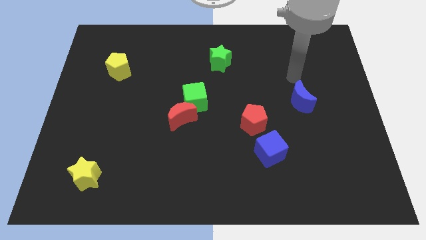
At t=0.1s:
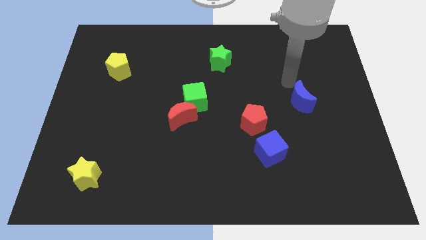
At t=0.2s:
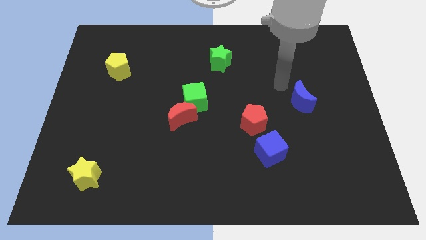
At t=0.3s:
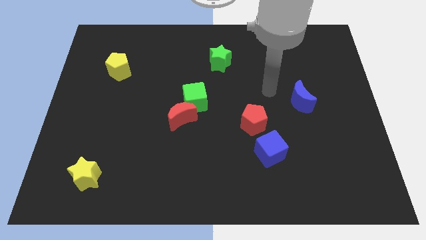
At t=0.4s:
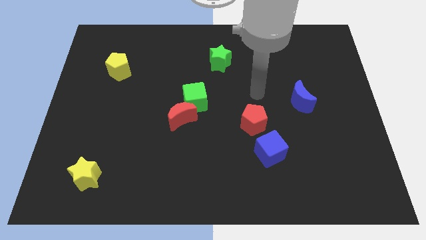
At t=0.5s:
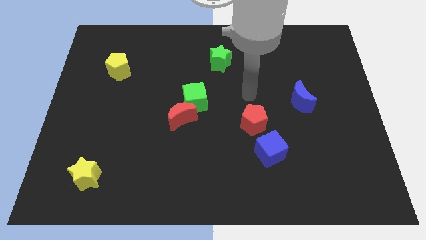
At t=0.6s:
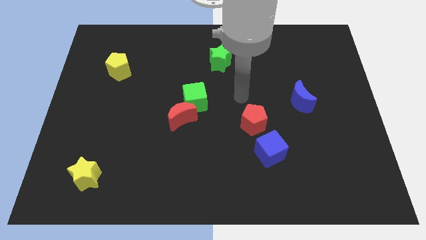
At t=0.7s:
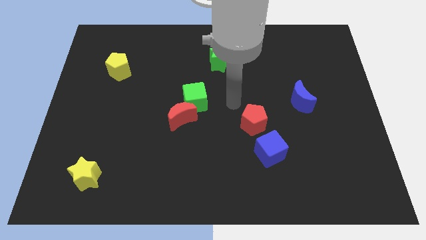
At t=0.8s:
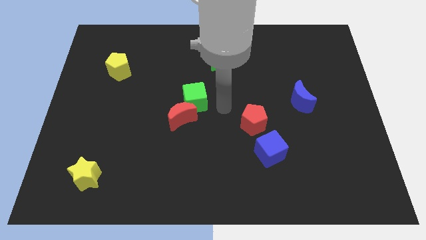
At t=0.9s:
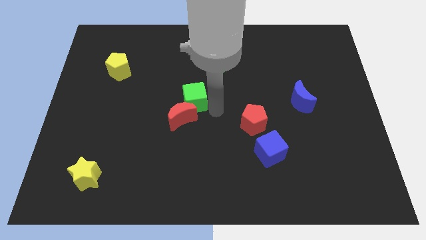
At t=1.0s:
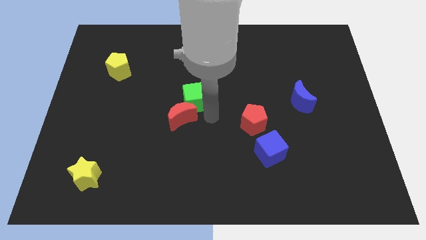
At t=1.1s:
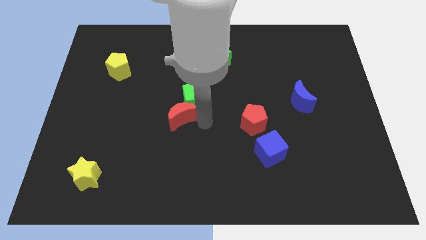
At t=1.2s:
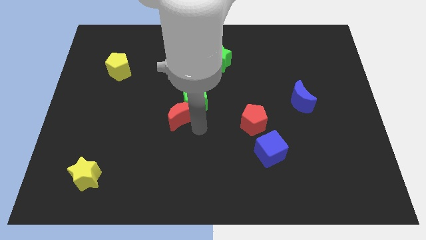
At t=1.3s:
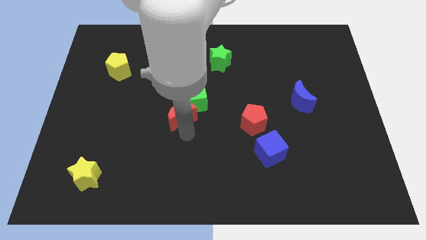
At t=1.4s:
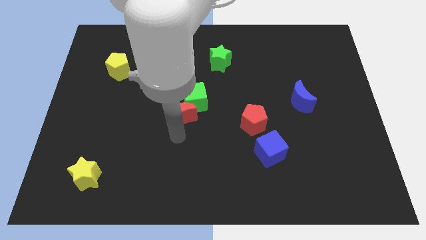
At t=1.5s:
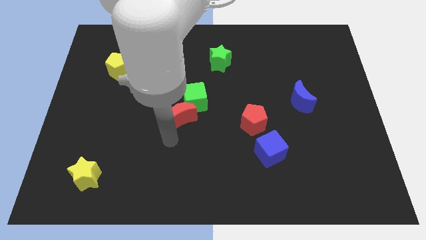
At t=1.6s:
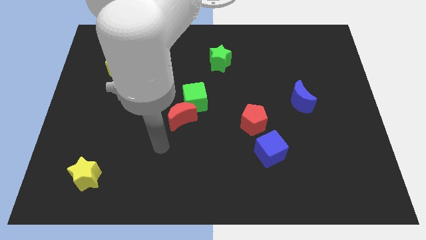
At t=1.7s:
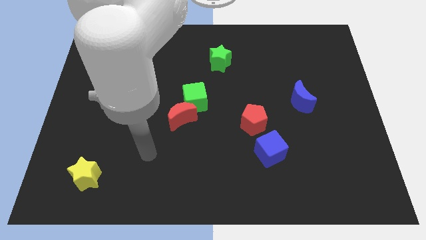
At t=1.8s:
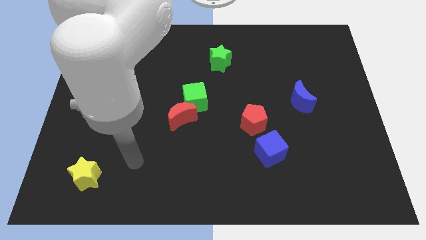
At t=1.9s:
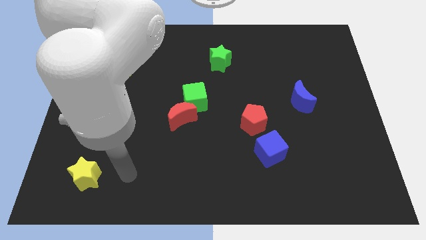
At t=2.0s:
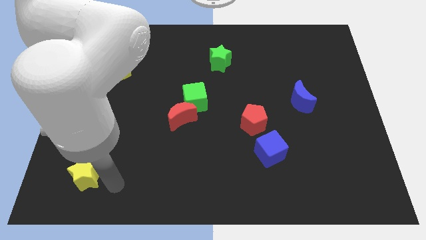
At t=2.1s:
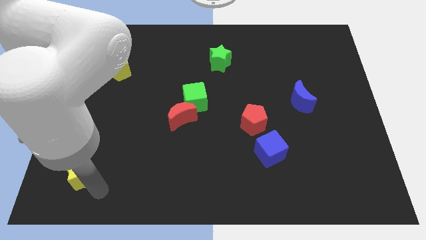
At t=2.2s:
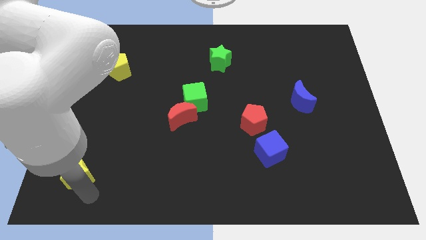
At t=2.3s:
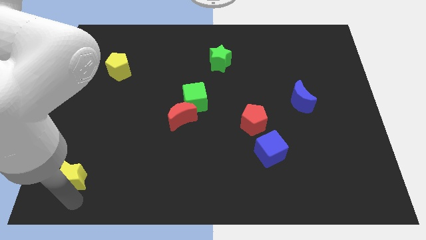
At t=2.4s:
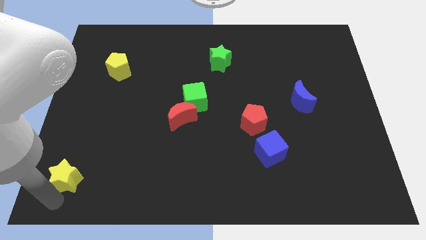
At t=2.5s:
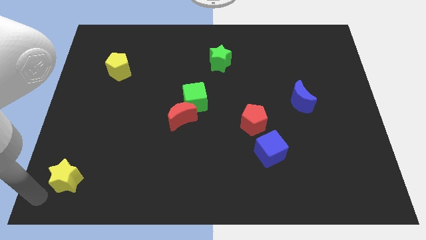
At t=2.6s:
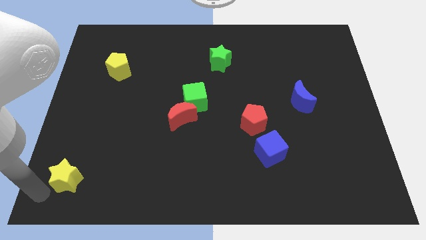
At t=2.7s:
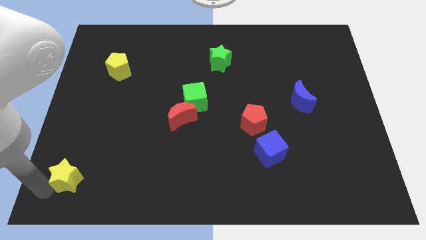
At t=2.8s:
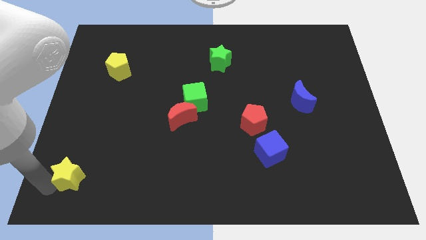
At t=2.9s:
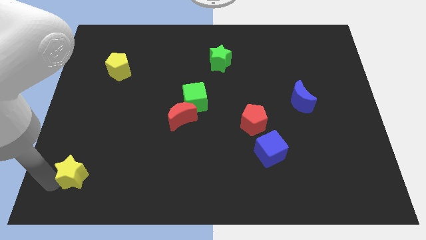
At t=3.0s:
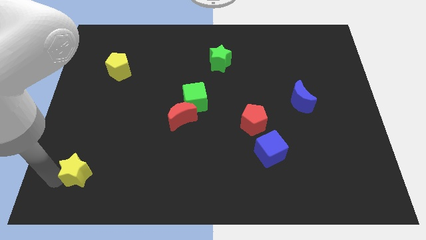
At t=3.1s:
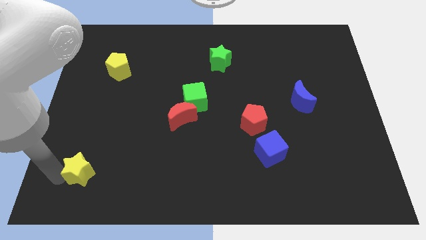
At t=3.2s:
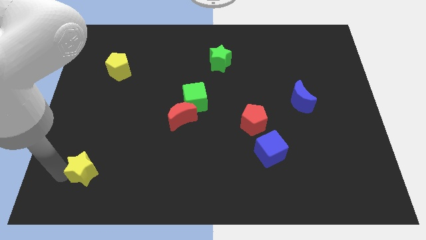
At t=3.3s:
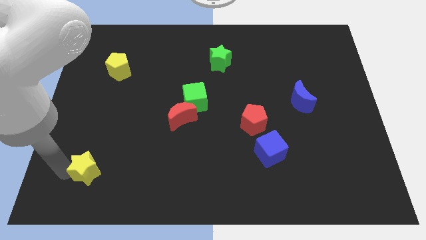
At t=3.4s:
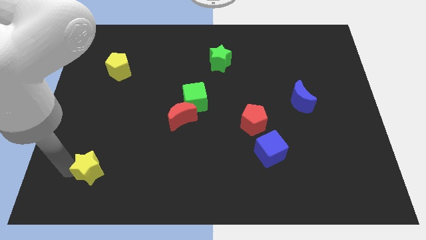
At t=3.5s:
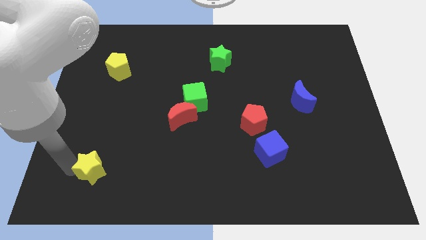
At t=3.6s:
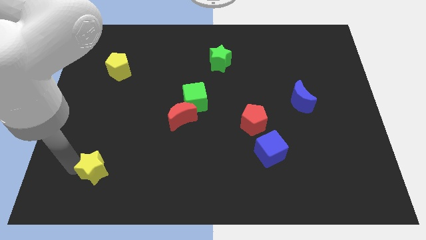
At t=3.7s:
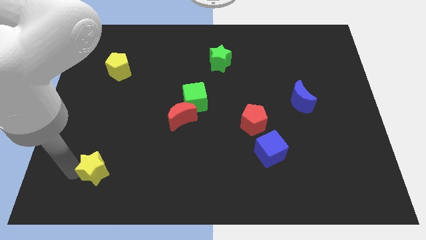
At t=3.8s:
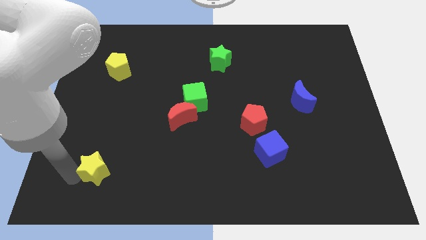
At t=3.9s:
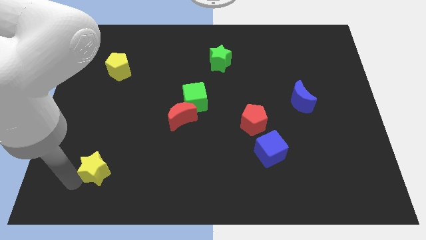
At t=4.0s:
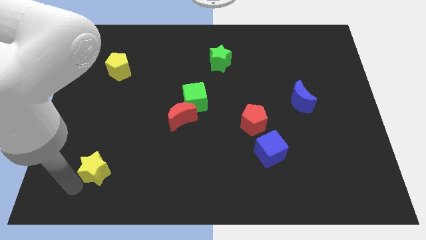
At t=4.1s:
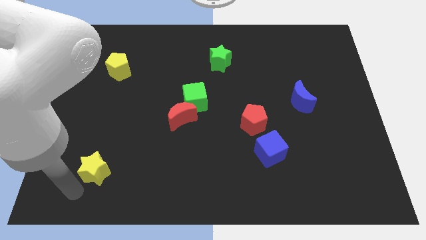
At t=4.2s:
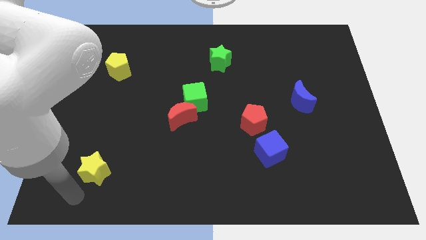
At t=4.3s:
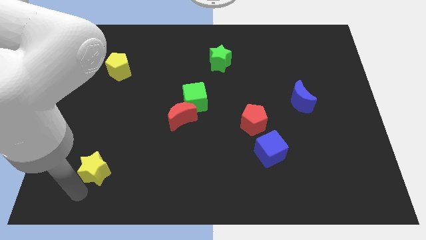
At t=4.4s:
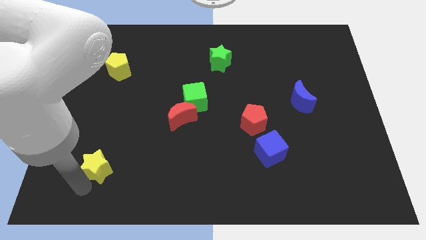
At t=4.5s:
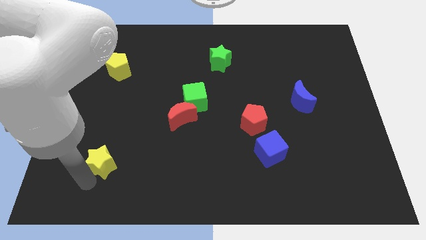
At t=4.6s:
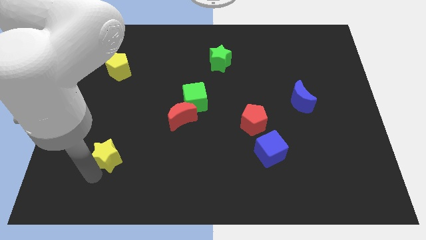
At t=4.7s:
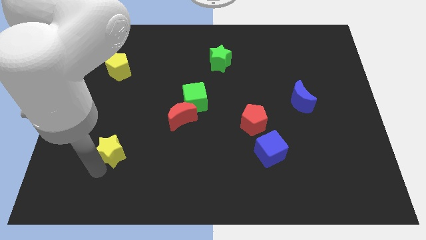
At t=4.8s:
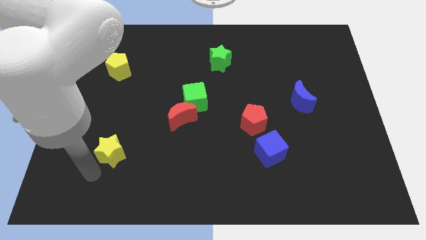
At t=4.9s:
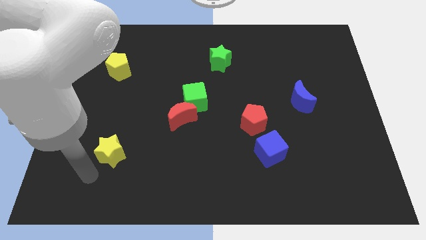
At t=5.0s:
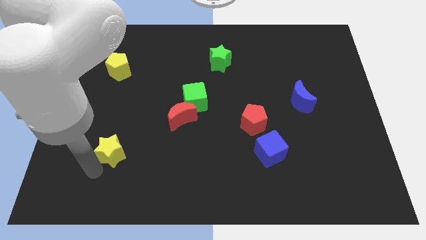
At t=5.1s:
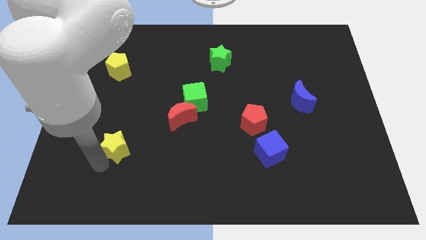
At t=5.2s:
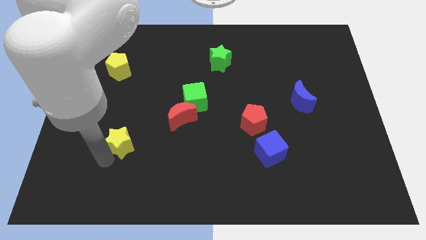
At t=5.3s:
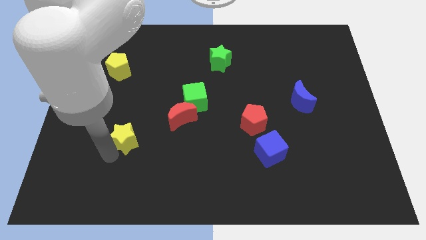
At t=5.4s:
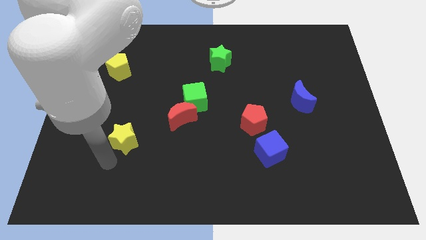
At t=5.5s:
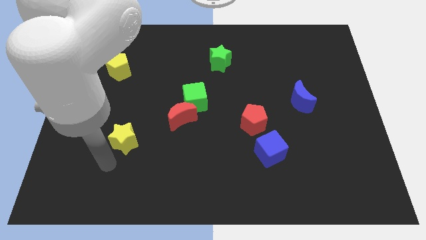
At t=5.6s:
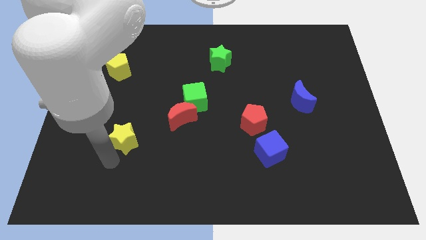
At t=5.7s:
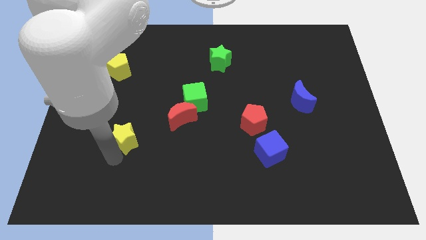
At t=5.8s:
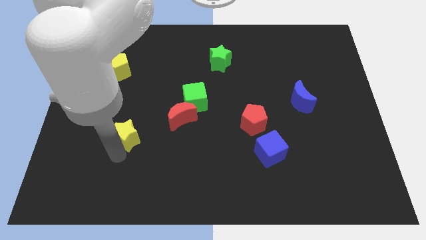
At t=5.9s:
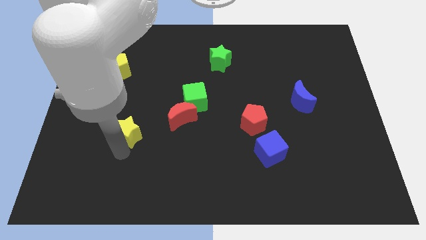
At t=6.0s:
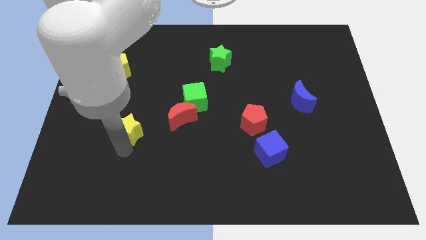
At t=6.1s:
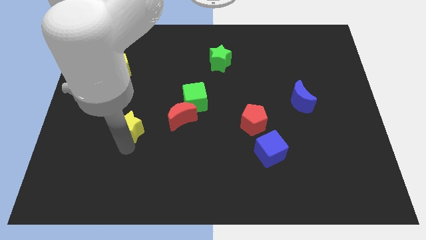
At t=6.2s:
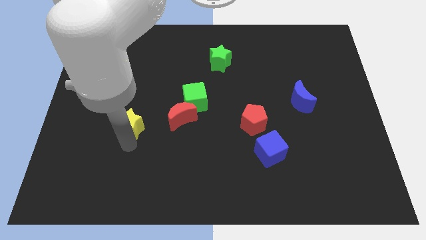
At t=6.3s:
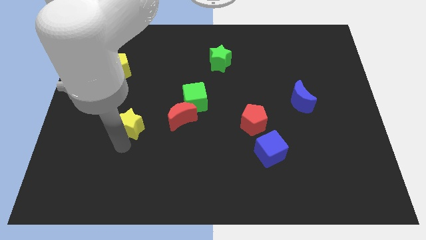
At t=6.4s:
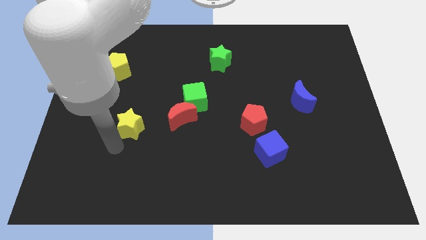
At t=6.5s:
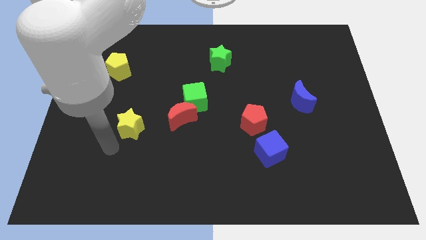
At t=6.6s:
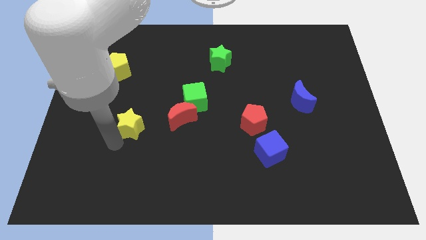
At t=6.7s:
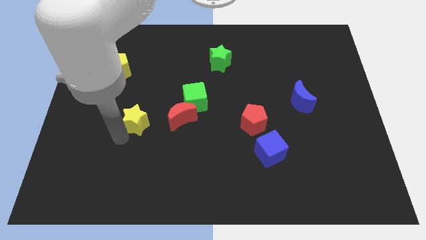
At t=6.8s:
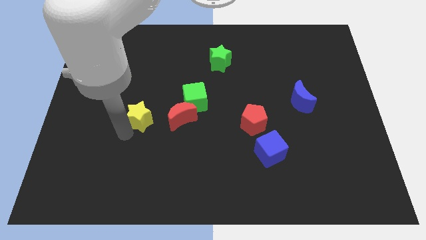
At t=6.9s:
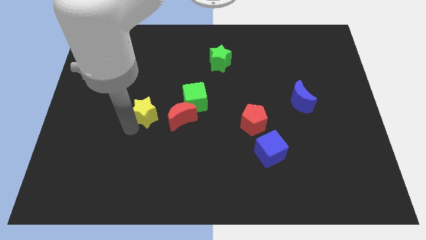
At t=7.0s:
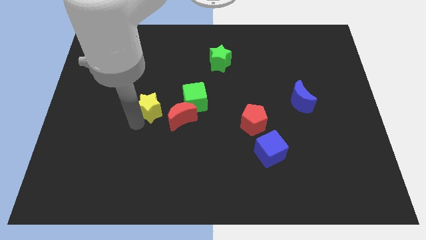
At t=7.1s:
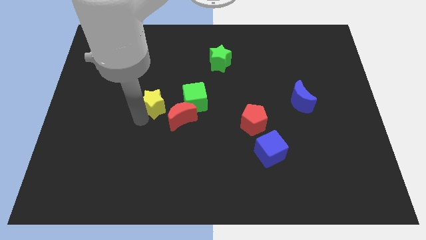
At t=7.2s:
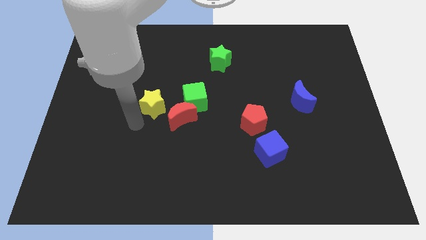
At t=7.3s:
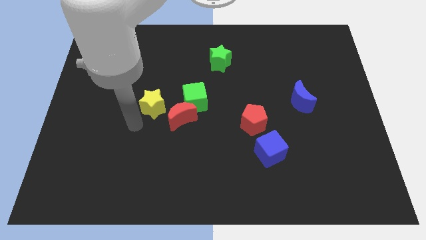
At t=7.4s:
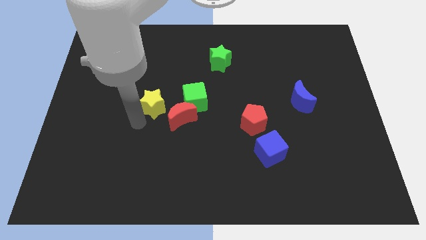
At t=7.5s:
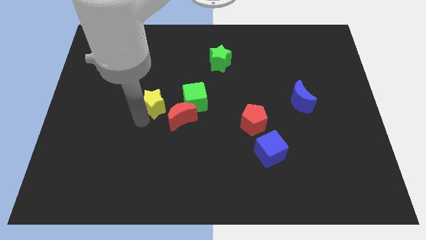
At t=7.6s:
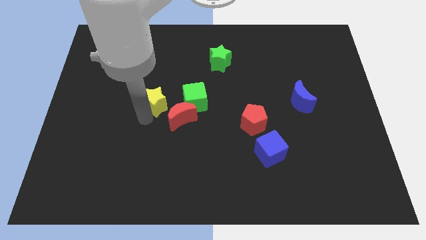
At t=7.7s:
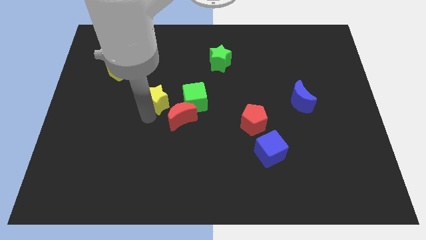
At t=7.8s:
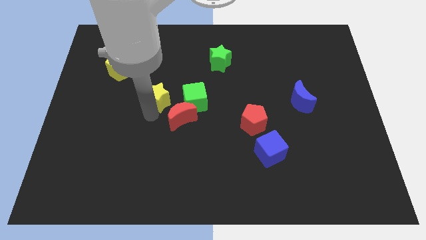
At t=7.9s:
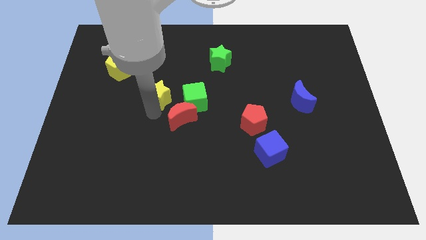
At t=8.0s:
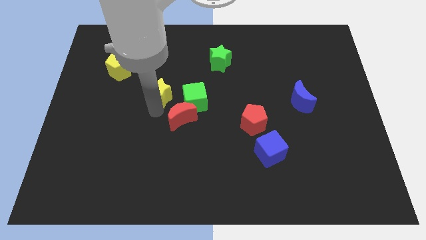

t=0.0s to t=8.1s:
slide the yellow star to the top left side of the green cube
